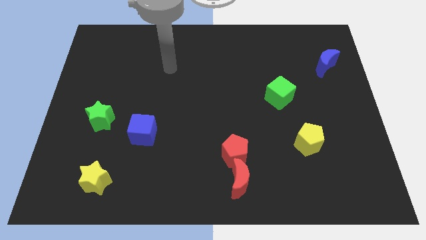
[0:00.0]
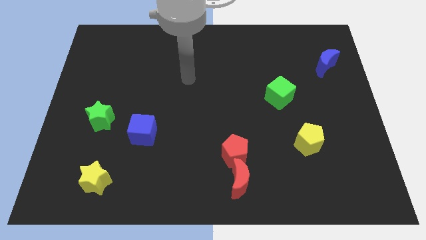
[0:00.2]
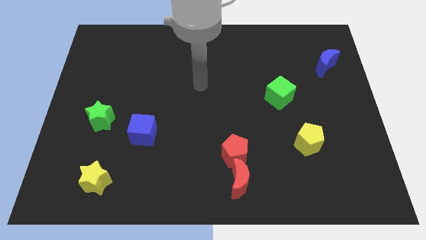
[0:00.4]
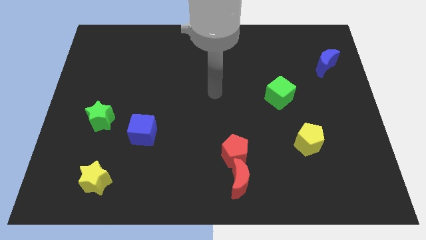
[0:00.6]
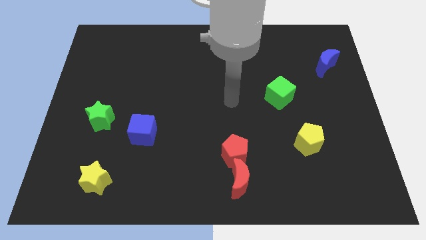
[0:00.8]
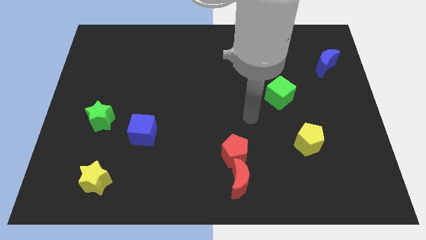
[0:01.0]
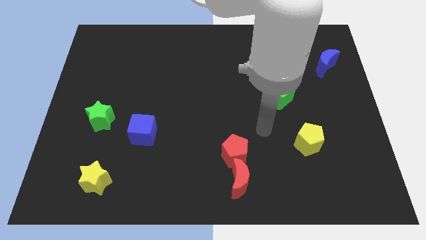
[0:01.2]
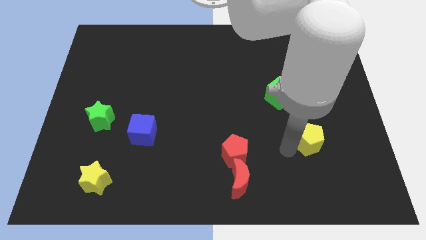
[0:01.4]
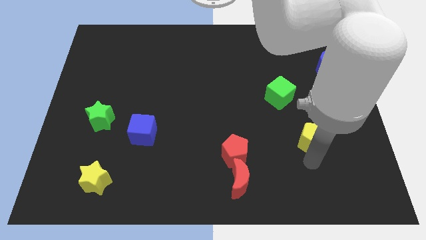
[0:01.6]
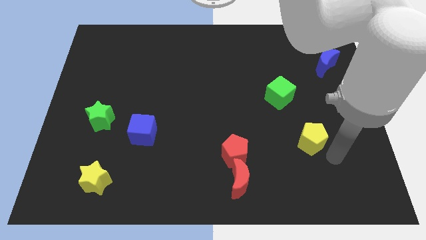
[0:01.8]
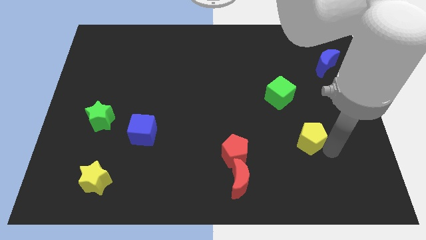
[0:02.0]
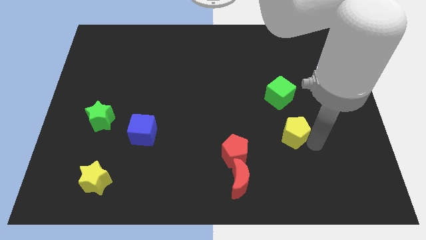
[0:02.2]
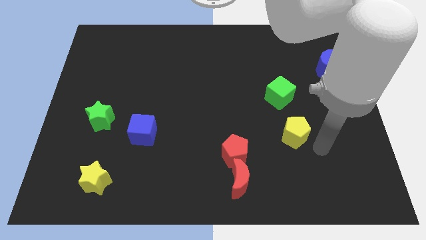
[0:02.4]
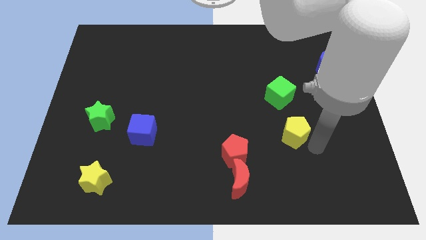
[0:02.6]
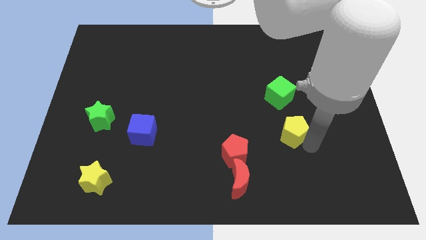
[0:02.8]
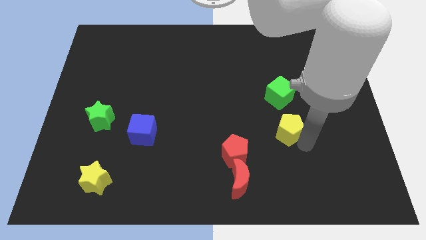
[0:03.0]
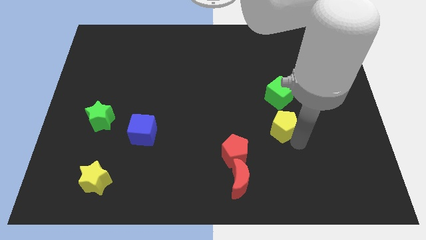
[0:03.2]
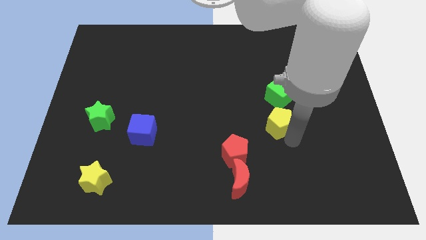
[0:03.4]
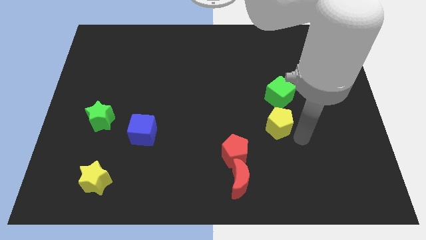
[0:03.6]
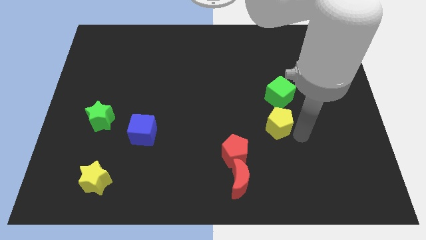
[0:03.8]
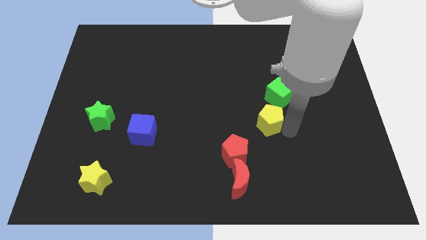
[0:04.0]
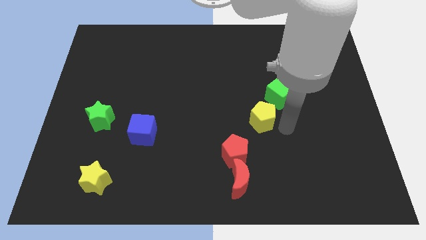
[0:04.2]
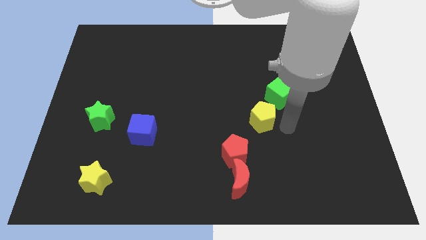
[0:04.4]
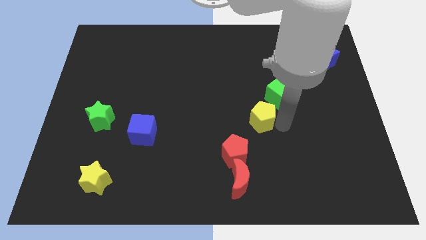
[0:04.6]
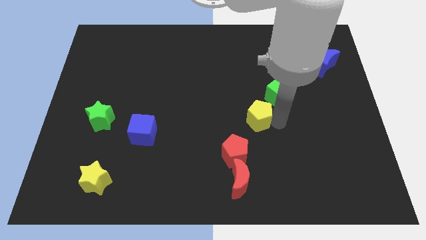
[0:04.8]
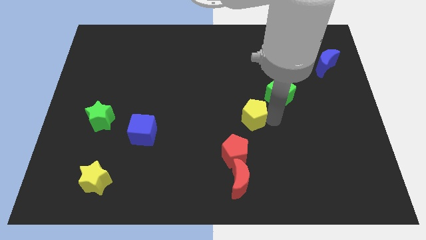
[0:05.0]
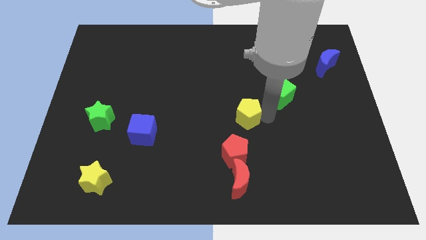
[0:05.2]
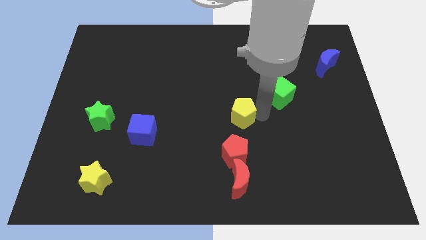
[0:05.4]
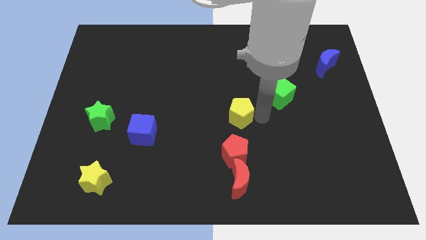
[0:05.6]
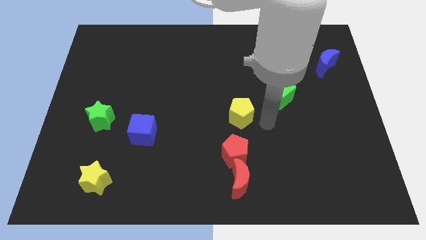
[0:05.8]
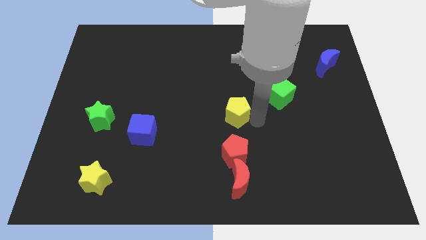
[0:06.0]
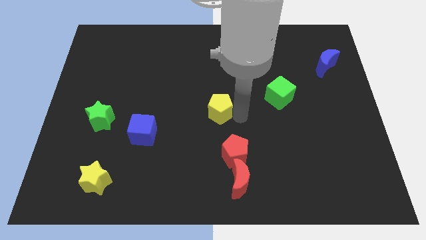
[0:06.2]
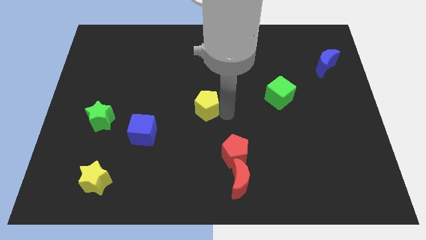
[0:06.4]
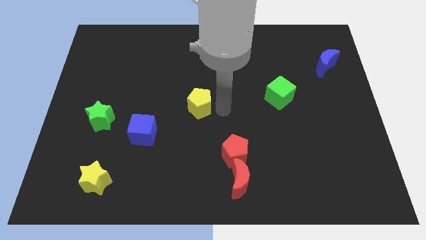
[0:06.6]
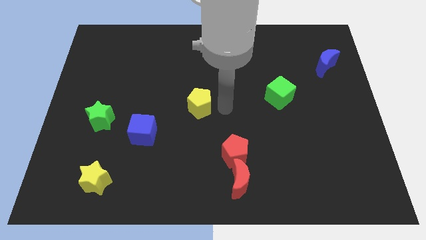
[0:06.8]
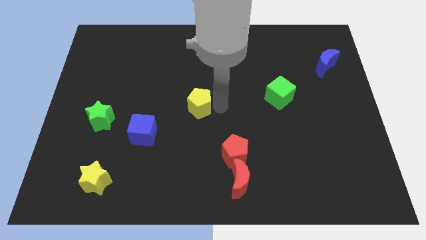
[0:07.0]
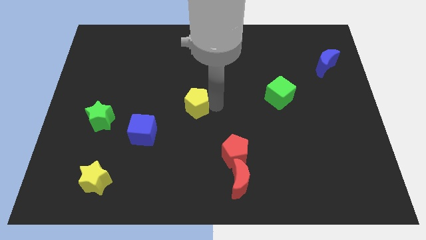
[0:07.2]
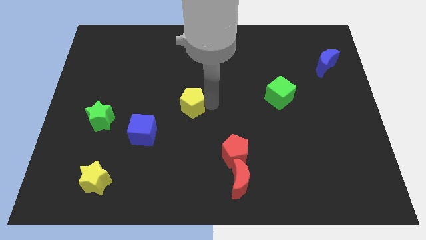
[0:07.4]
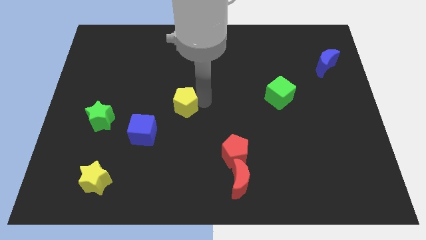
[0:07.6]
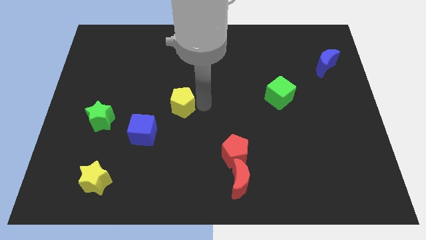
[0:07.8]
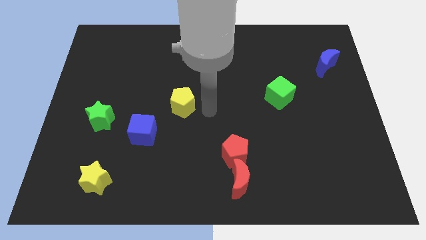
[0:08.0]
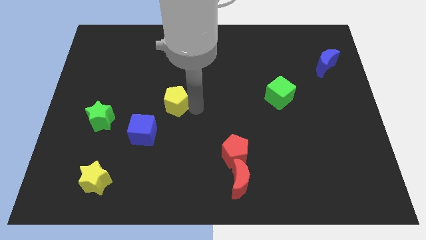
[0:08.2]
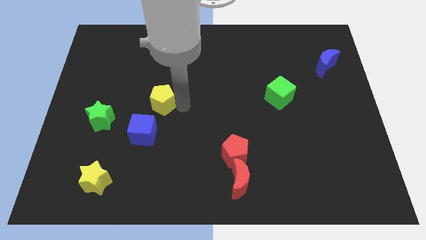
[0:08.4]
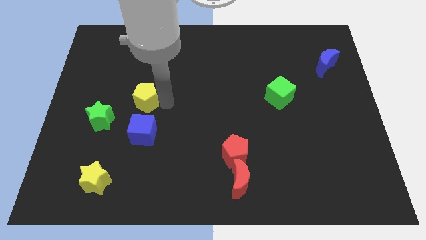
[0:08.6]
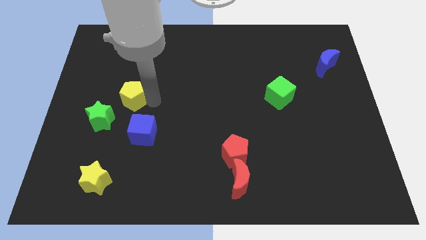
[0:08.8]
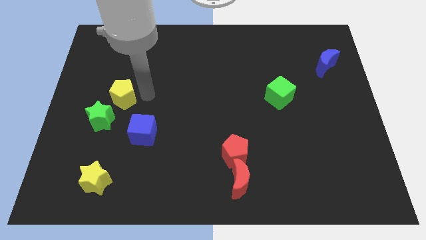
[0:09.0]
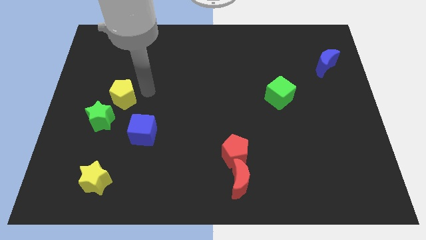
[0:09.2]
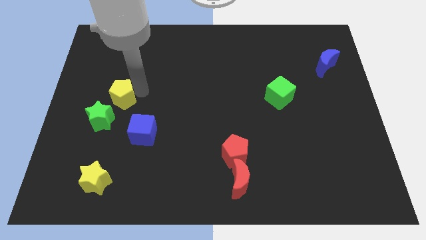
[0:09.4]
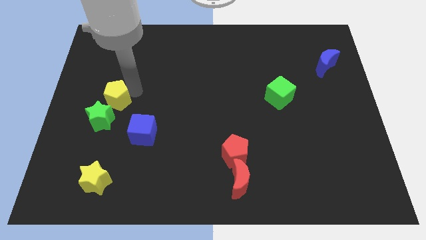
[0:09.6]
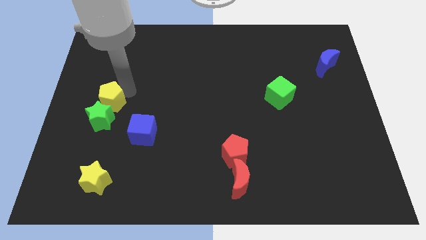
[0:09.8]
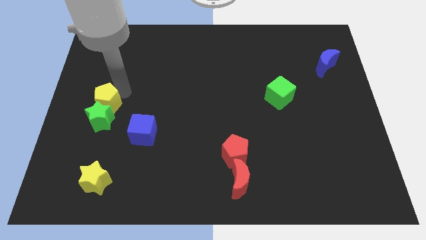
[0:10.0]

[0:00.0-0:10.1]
put the yellow pentagon to the left side
